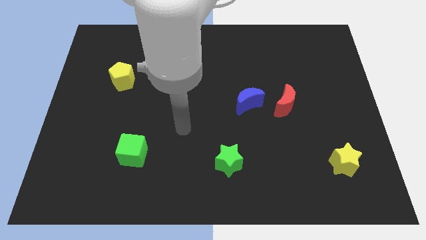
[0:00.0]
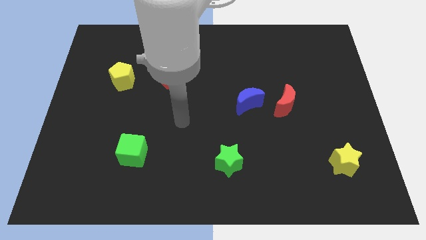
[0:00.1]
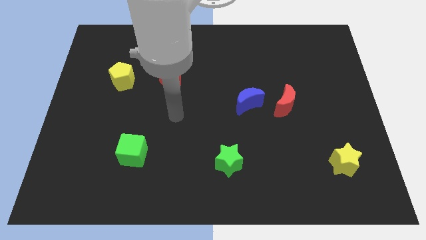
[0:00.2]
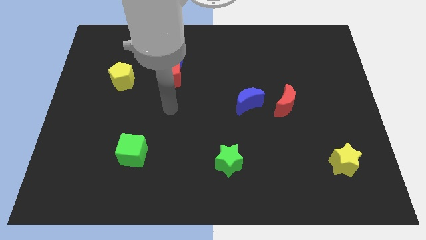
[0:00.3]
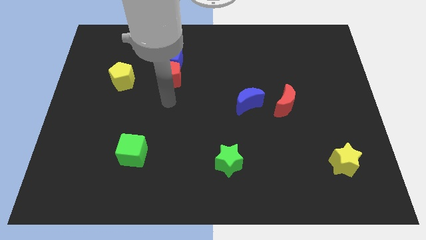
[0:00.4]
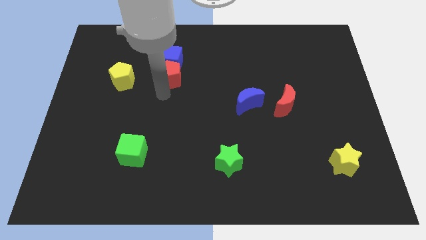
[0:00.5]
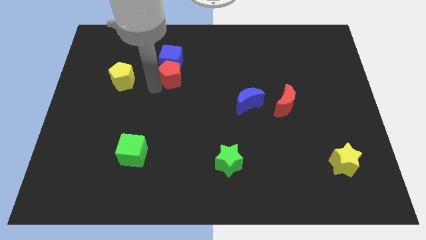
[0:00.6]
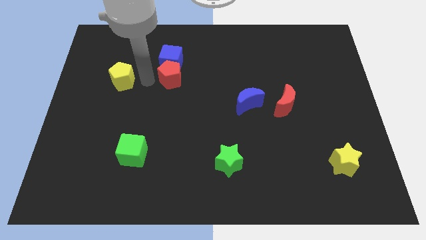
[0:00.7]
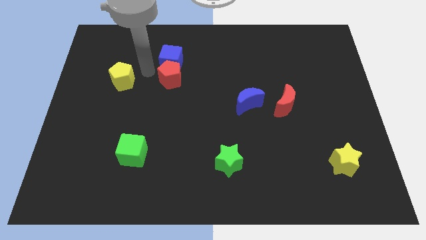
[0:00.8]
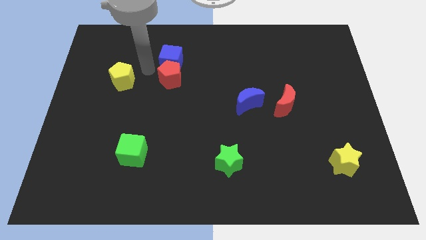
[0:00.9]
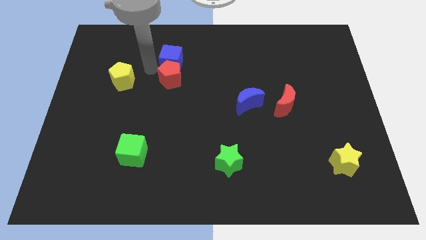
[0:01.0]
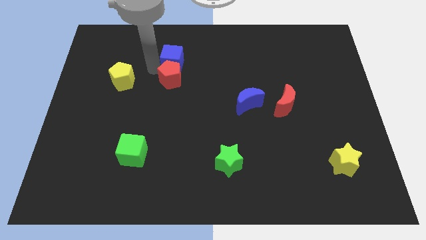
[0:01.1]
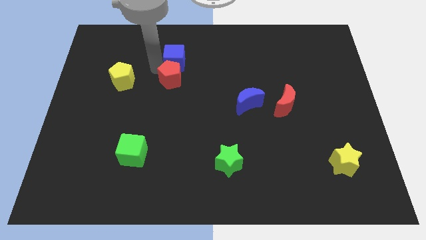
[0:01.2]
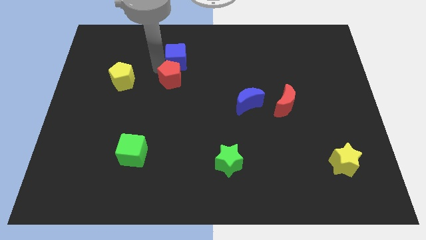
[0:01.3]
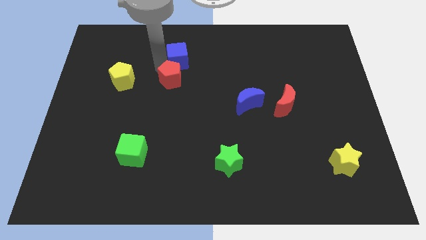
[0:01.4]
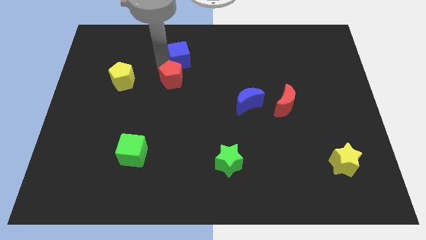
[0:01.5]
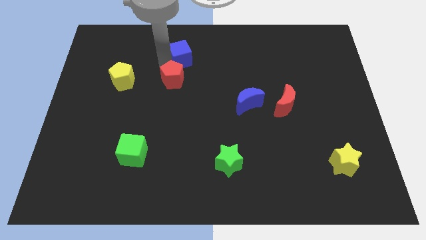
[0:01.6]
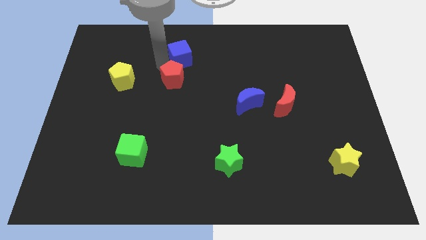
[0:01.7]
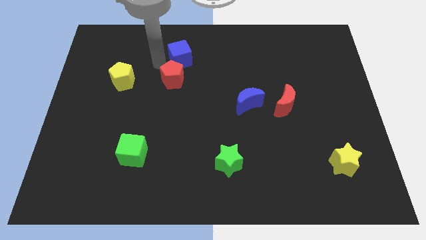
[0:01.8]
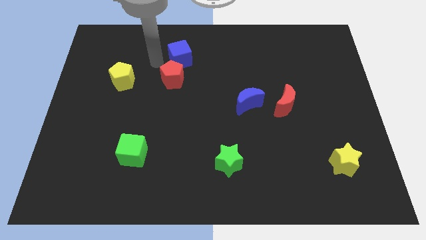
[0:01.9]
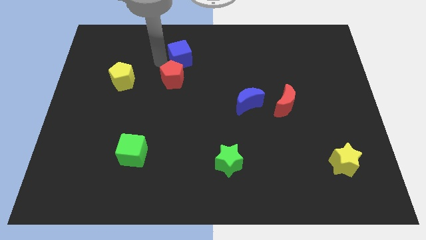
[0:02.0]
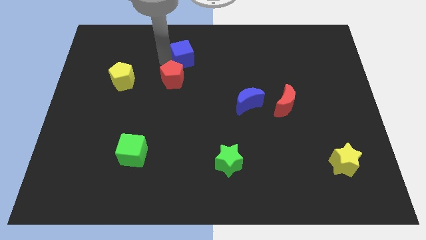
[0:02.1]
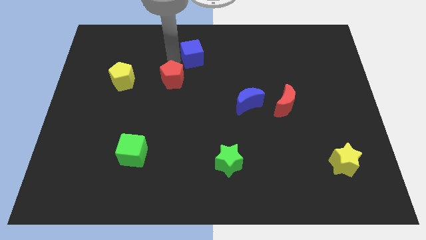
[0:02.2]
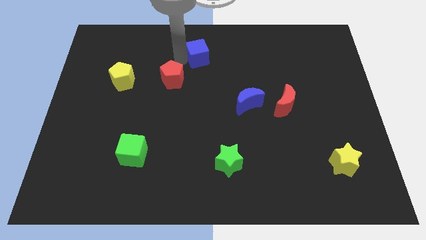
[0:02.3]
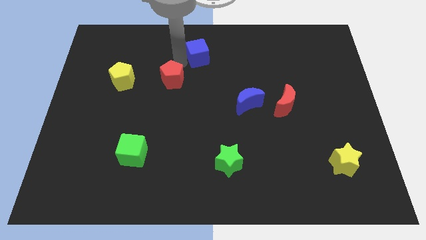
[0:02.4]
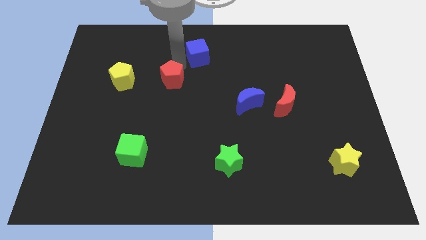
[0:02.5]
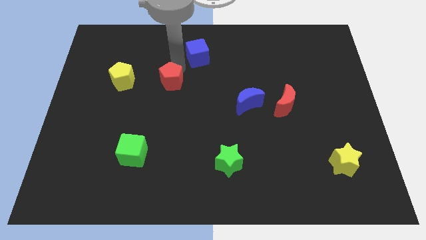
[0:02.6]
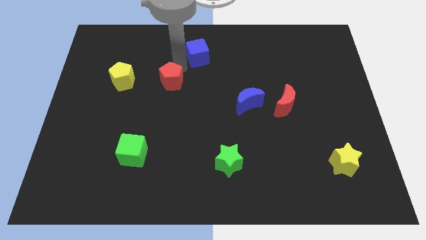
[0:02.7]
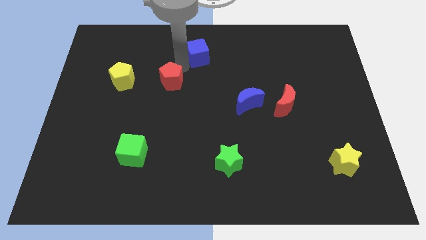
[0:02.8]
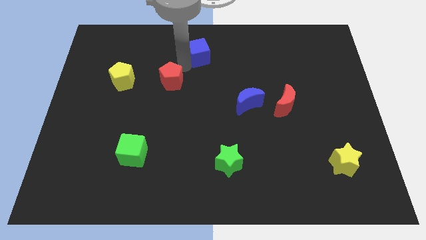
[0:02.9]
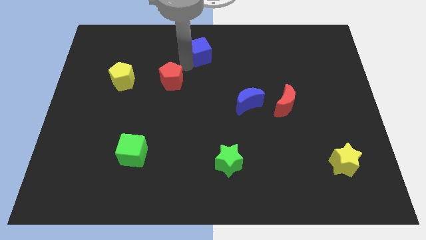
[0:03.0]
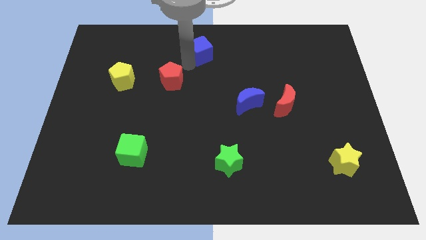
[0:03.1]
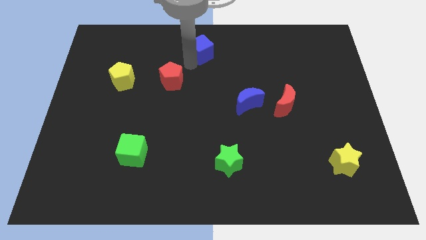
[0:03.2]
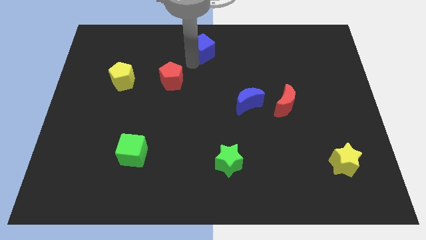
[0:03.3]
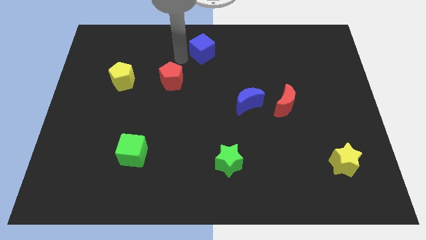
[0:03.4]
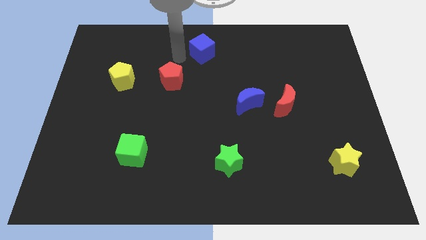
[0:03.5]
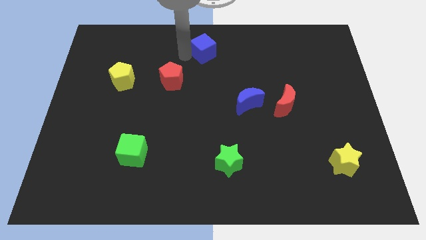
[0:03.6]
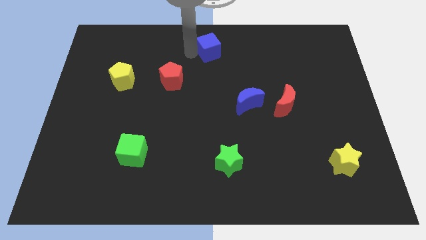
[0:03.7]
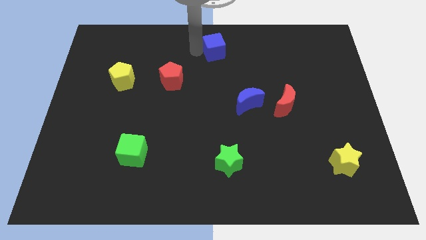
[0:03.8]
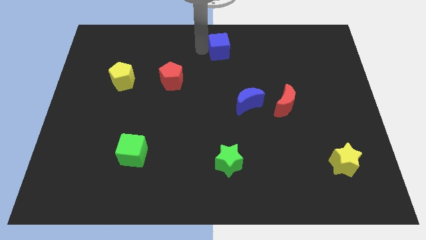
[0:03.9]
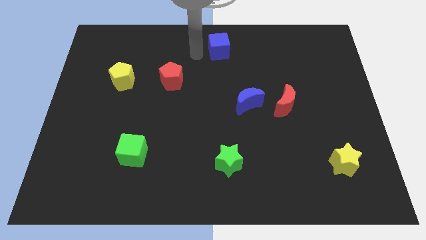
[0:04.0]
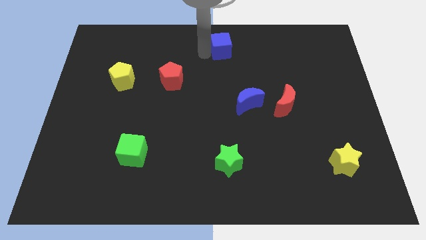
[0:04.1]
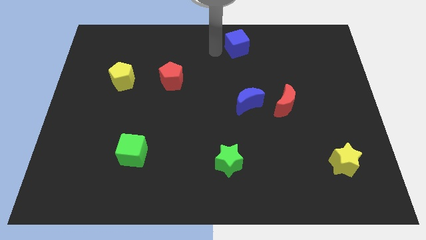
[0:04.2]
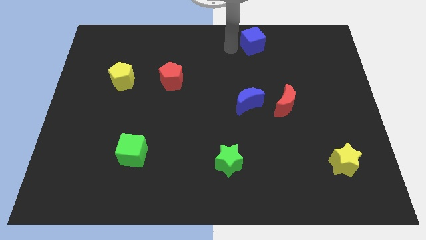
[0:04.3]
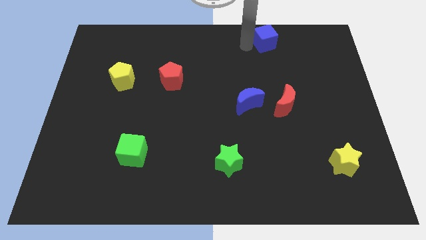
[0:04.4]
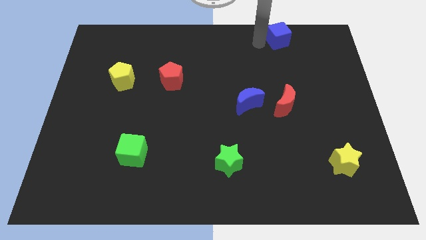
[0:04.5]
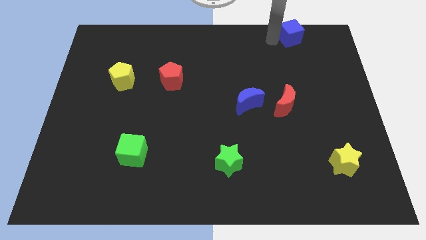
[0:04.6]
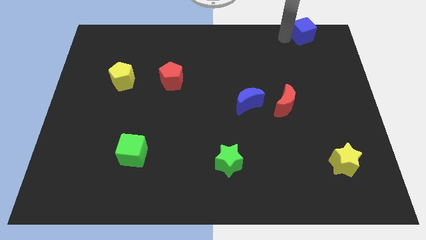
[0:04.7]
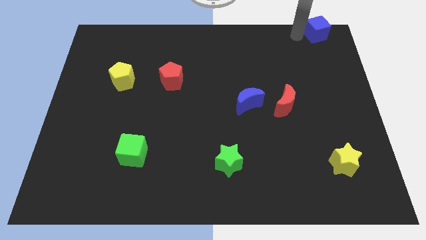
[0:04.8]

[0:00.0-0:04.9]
slide the blue cube to the top right corner

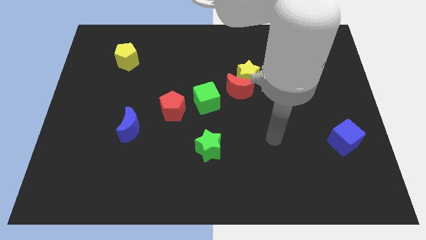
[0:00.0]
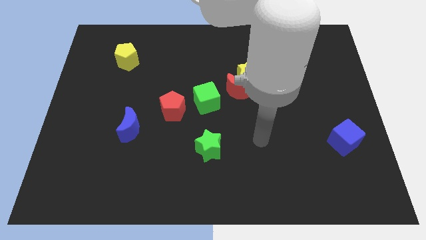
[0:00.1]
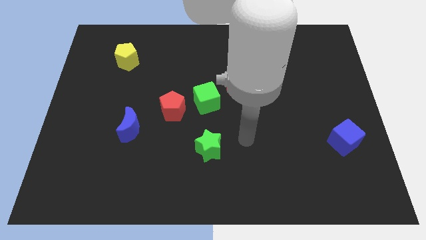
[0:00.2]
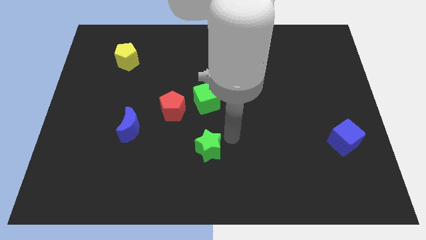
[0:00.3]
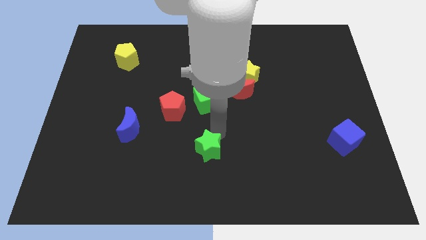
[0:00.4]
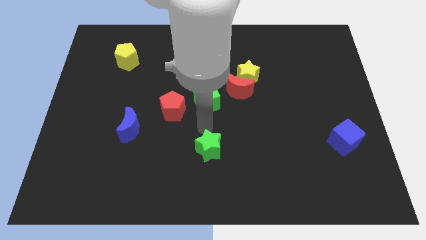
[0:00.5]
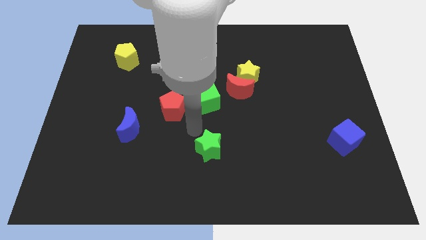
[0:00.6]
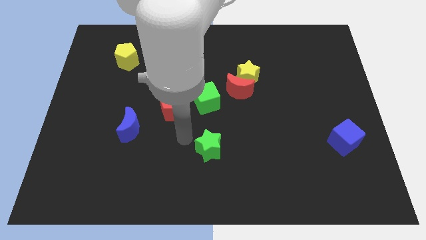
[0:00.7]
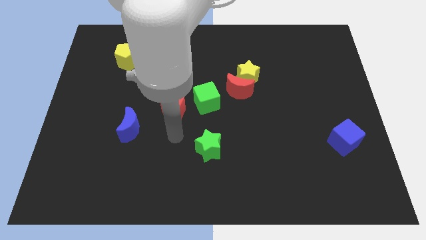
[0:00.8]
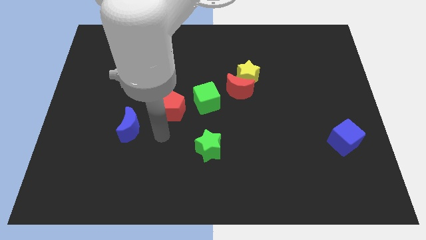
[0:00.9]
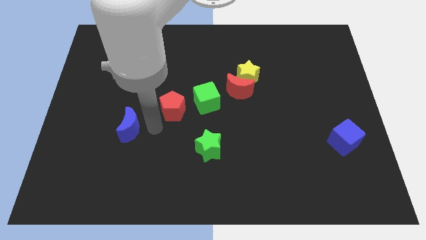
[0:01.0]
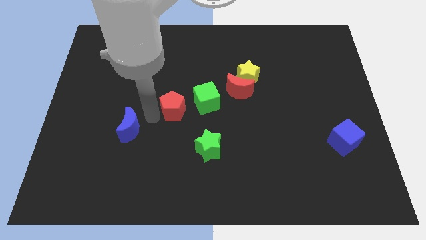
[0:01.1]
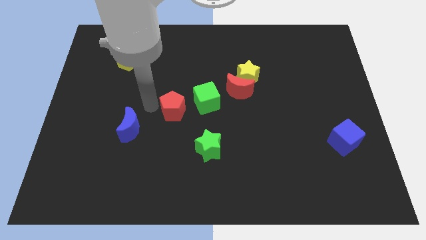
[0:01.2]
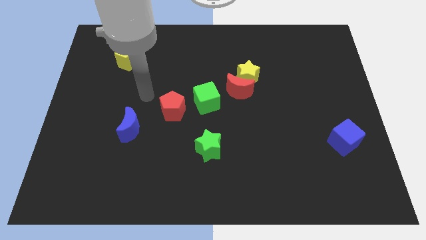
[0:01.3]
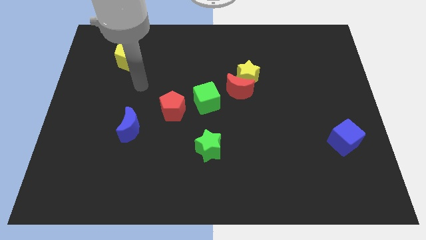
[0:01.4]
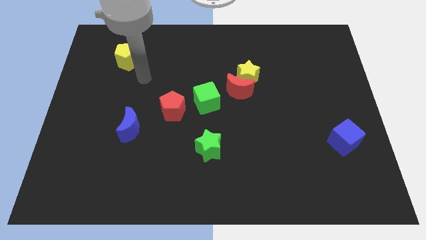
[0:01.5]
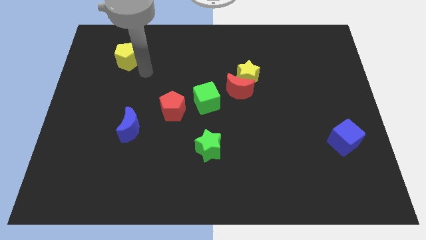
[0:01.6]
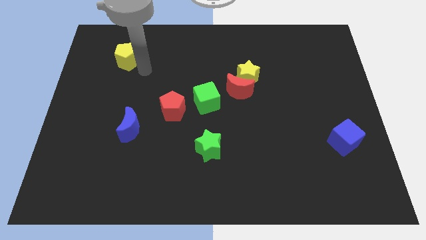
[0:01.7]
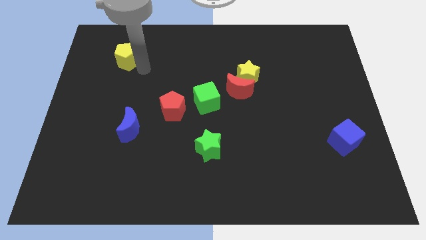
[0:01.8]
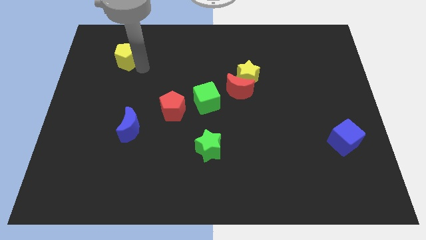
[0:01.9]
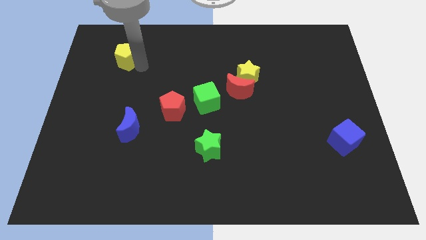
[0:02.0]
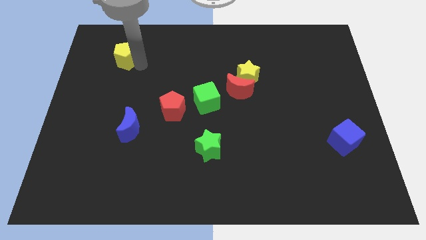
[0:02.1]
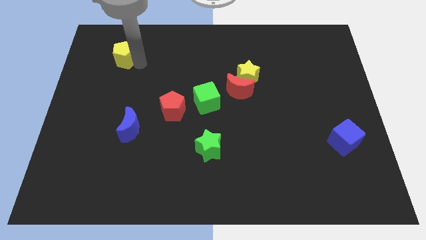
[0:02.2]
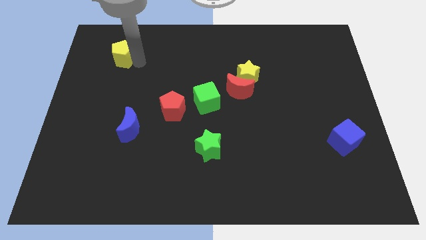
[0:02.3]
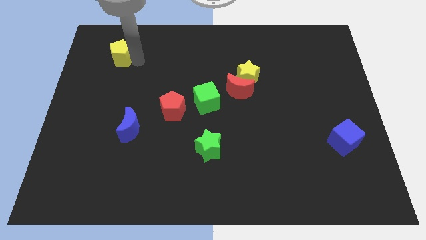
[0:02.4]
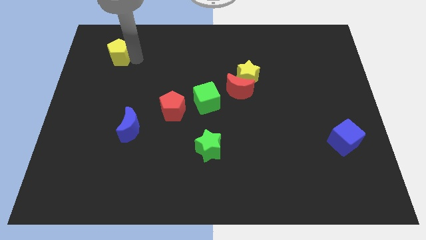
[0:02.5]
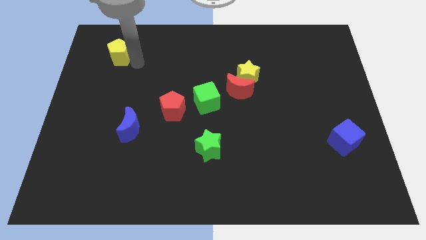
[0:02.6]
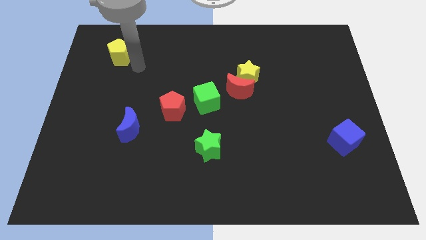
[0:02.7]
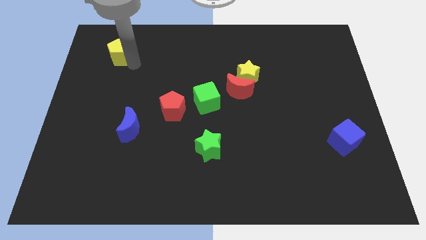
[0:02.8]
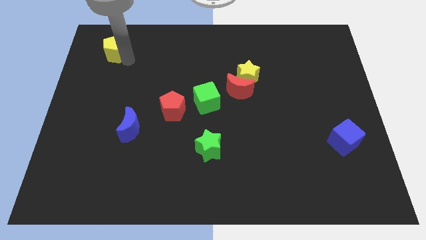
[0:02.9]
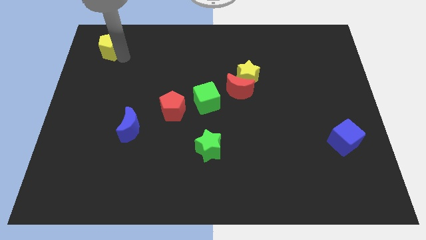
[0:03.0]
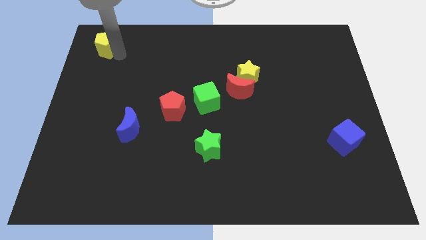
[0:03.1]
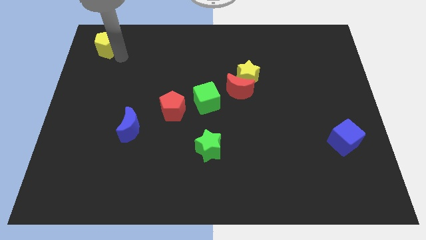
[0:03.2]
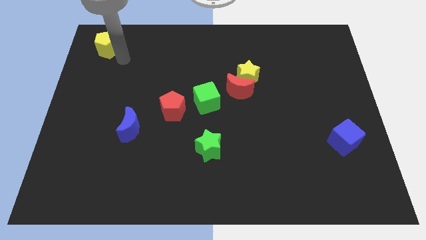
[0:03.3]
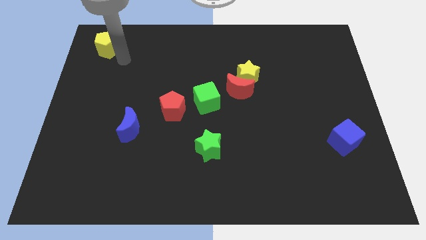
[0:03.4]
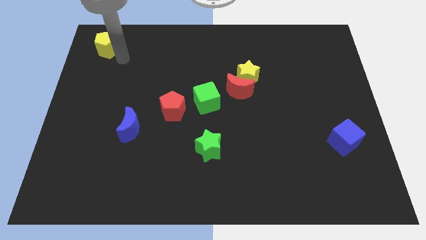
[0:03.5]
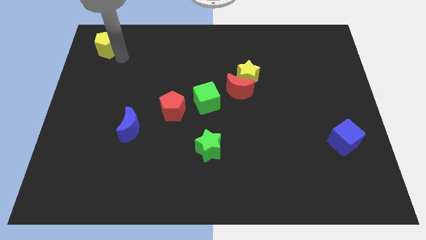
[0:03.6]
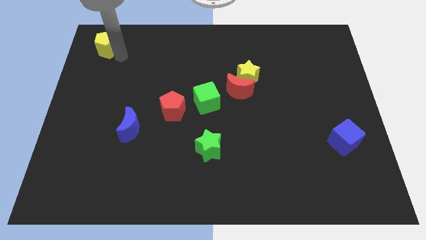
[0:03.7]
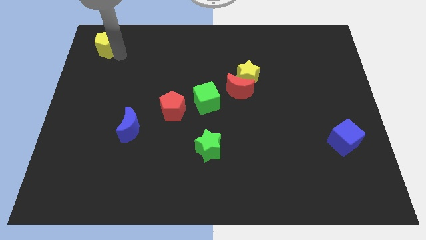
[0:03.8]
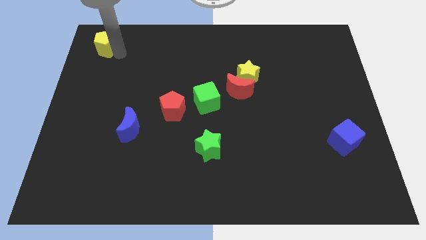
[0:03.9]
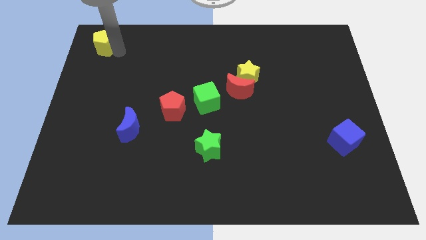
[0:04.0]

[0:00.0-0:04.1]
move the yellow pentagon to the top left of the board
